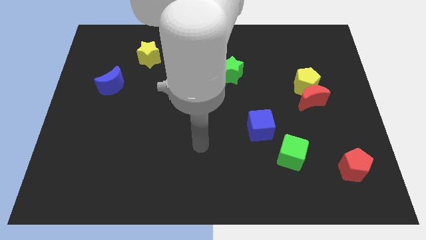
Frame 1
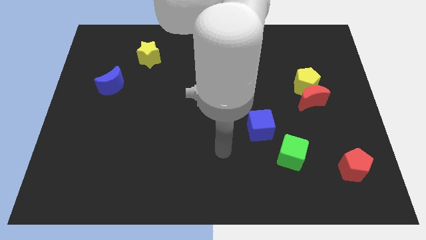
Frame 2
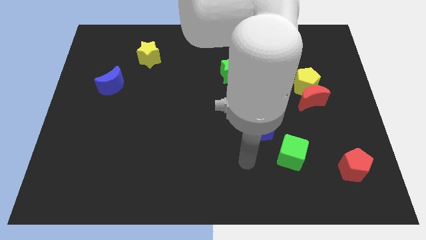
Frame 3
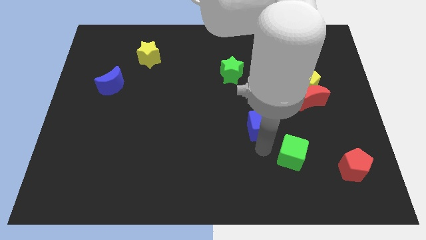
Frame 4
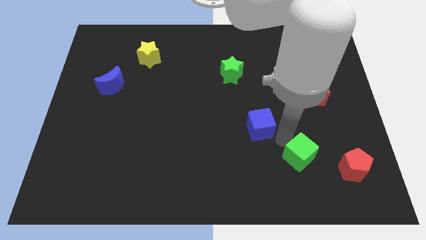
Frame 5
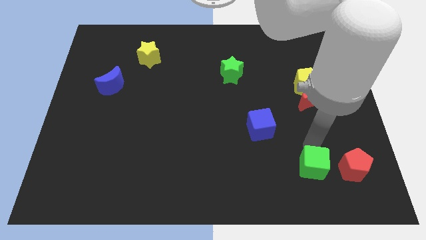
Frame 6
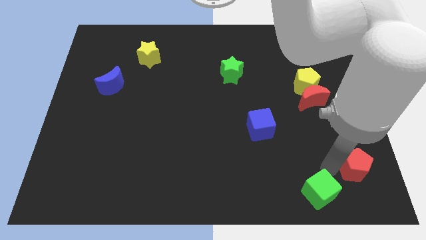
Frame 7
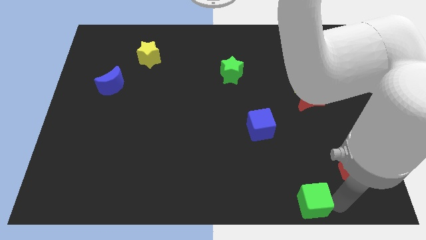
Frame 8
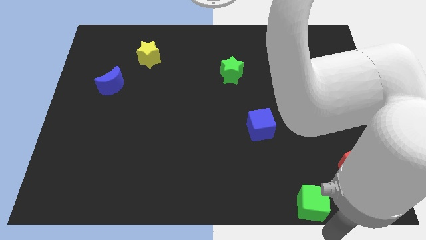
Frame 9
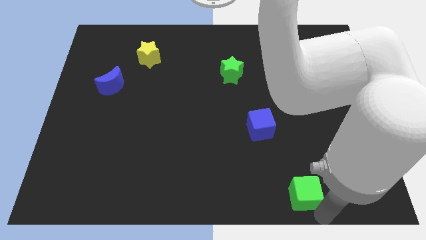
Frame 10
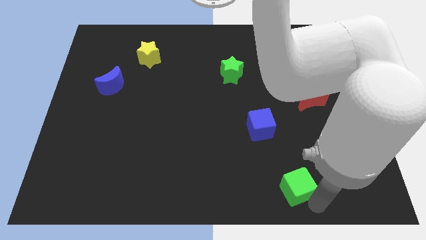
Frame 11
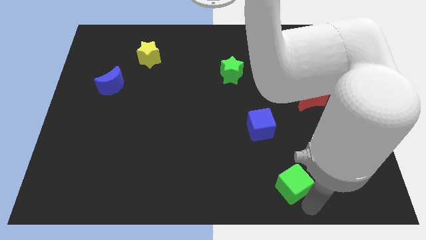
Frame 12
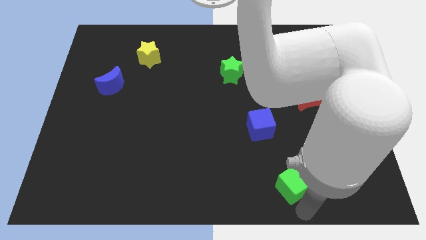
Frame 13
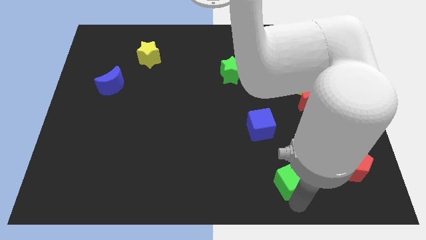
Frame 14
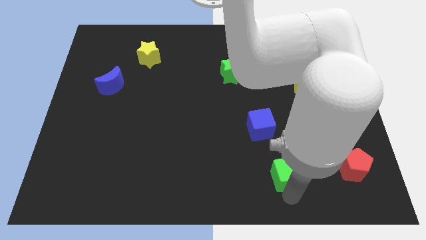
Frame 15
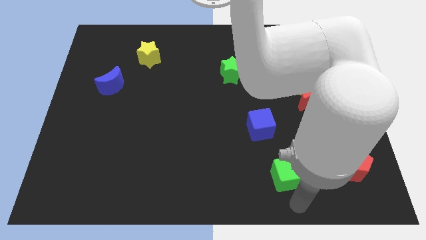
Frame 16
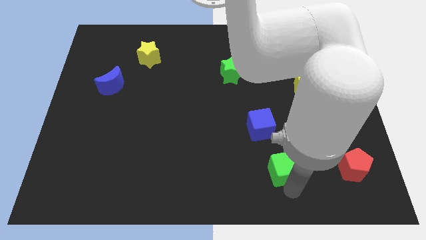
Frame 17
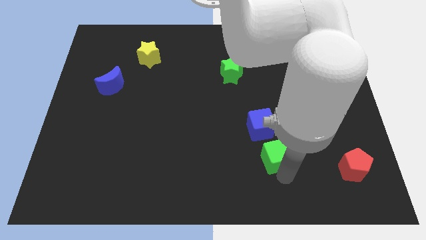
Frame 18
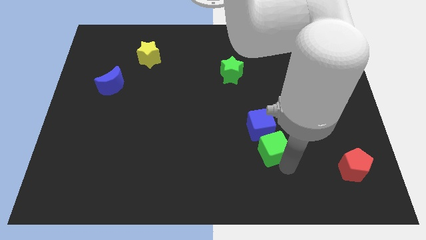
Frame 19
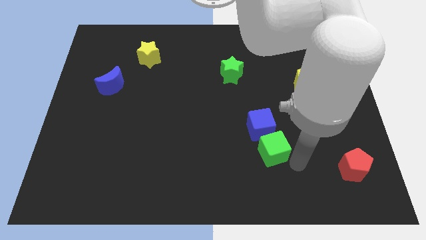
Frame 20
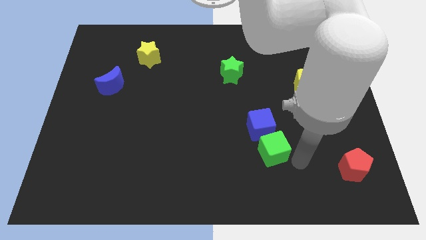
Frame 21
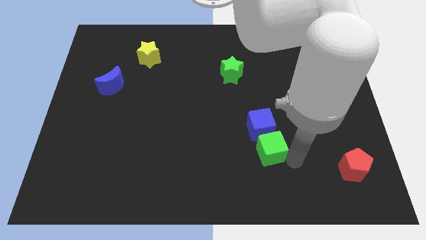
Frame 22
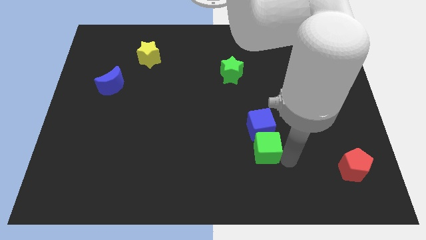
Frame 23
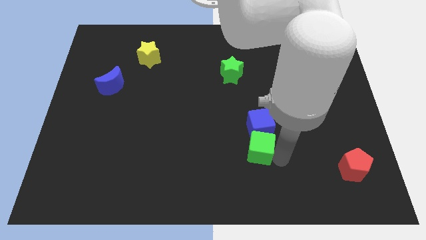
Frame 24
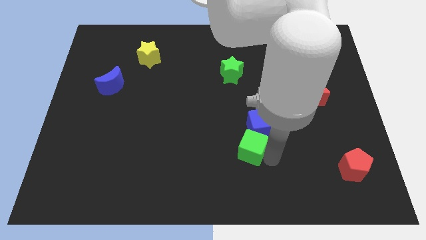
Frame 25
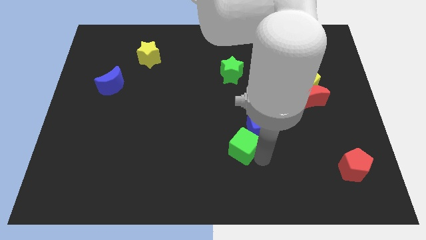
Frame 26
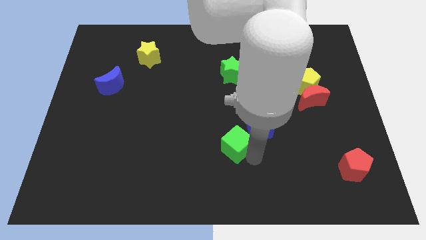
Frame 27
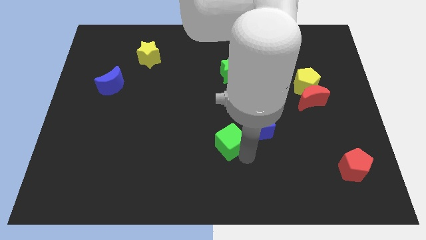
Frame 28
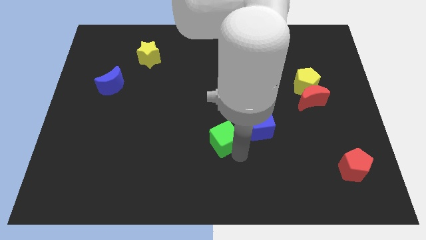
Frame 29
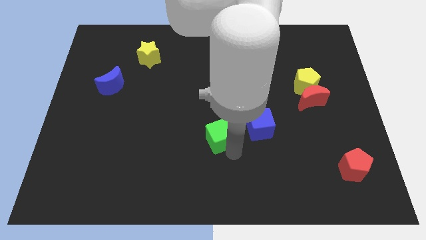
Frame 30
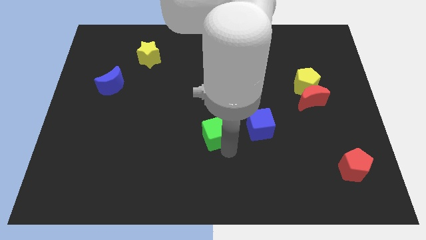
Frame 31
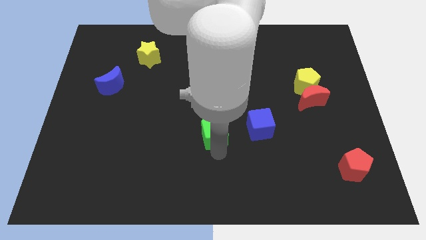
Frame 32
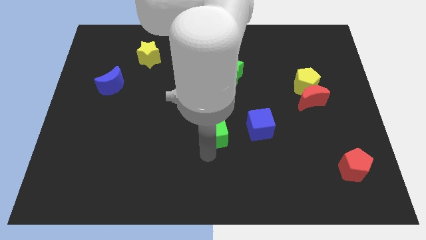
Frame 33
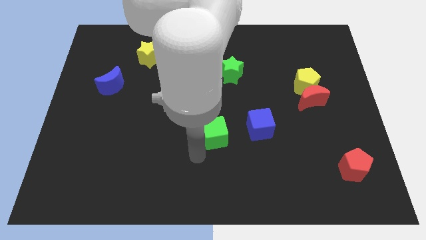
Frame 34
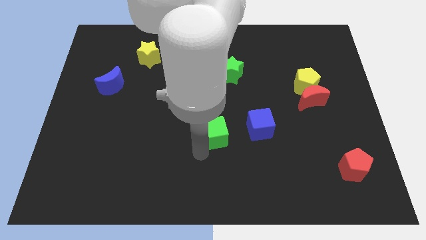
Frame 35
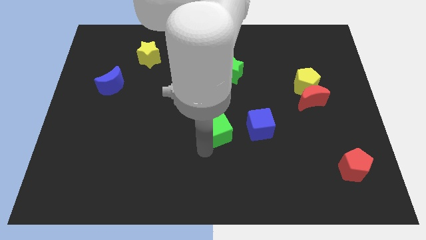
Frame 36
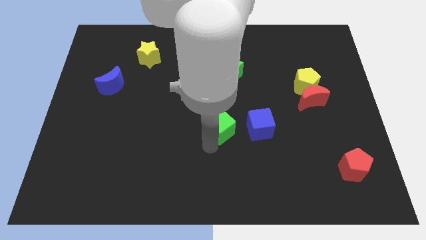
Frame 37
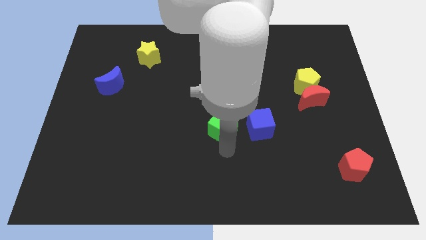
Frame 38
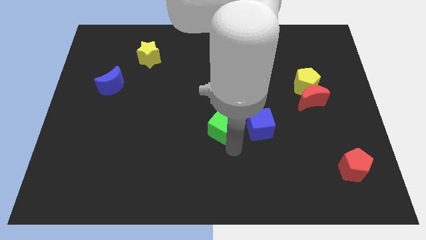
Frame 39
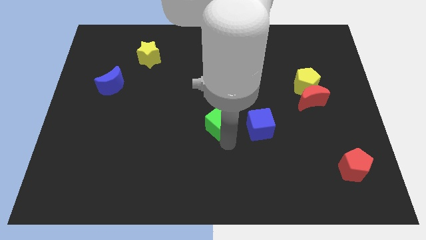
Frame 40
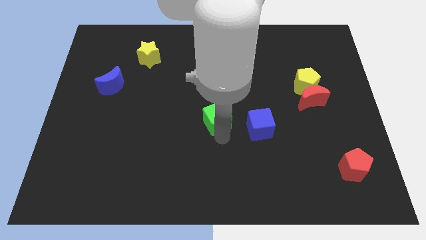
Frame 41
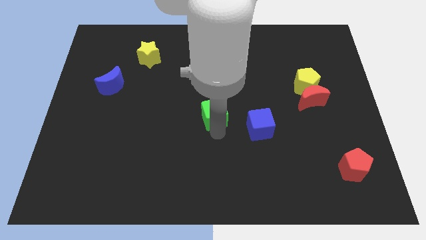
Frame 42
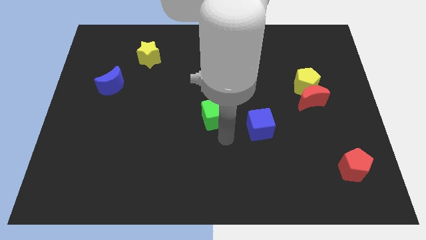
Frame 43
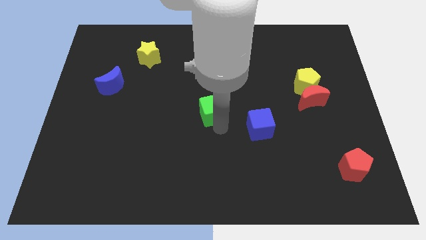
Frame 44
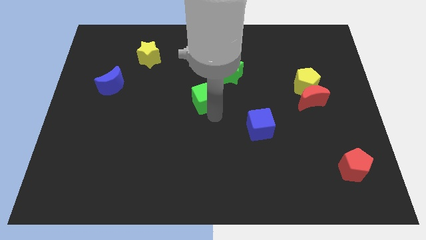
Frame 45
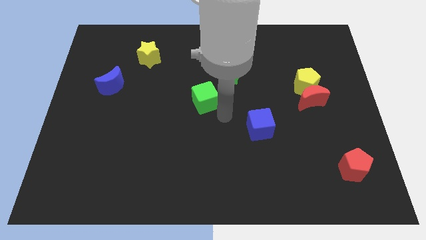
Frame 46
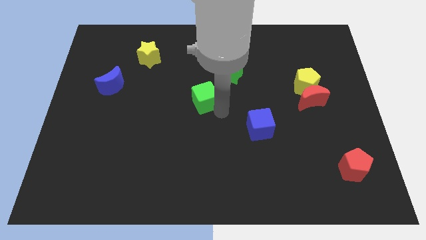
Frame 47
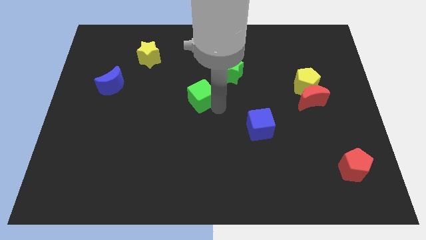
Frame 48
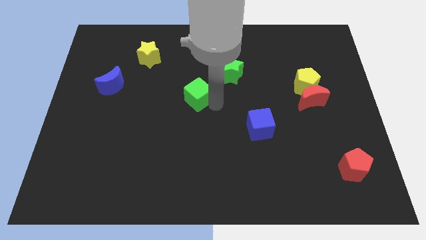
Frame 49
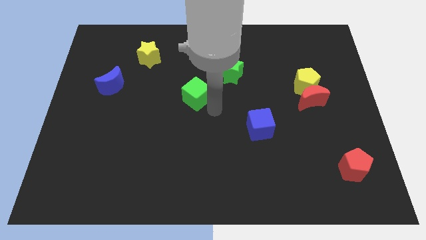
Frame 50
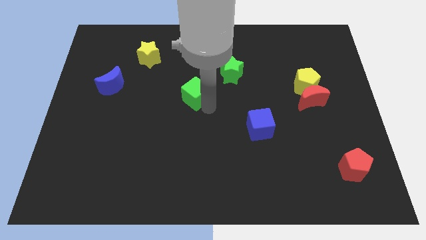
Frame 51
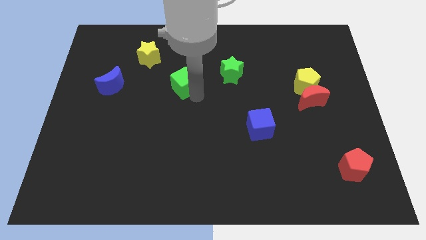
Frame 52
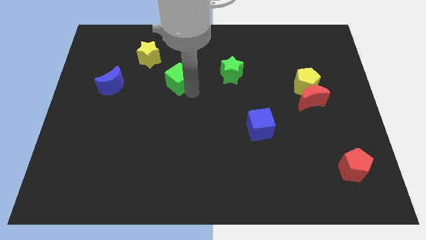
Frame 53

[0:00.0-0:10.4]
put the green cube to the bottom right side of the yellow star

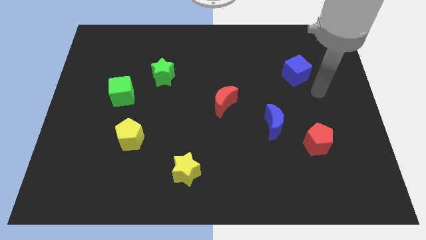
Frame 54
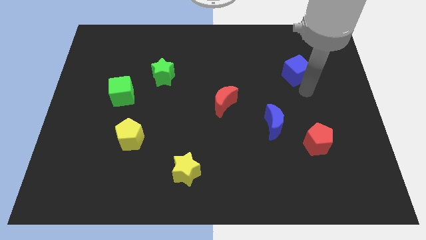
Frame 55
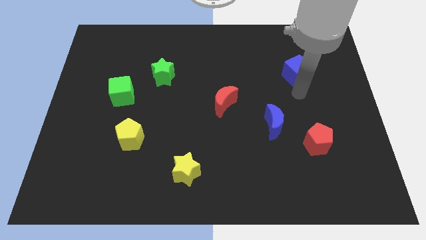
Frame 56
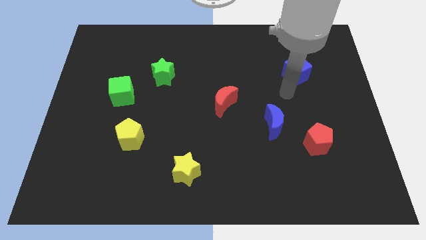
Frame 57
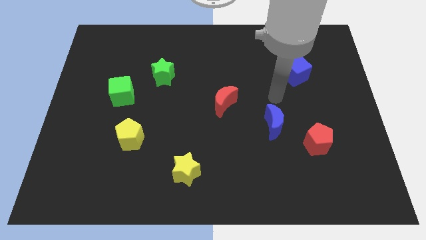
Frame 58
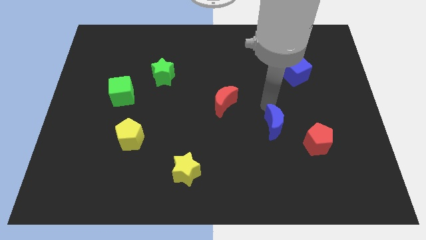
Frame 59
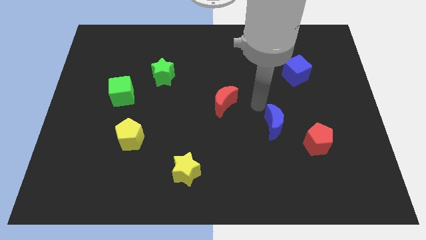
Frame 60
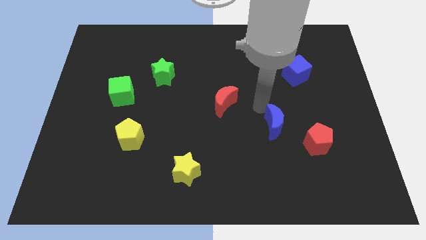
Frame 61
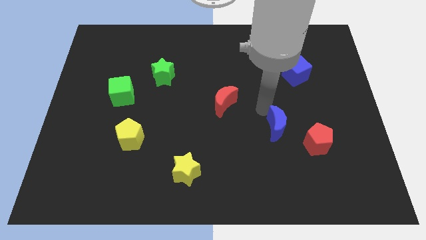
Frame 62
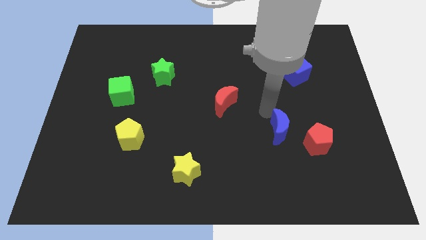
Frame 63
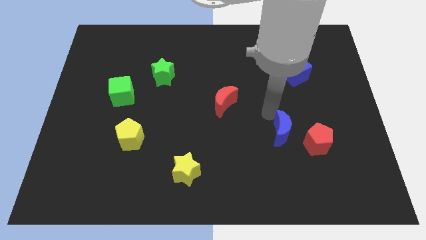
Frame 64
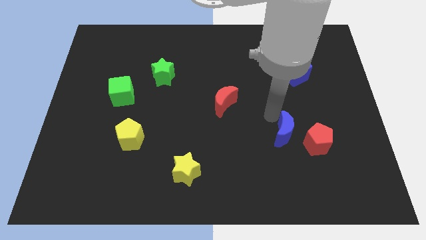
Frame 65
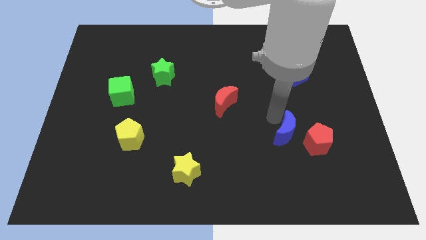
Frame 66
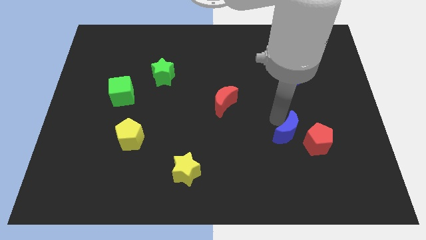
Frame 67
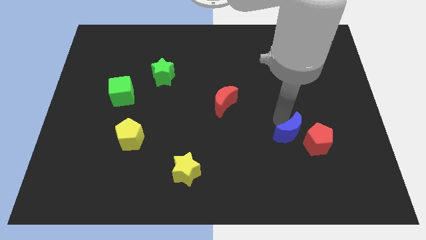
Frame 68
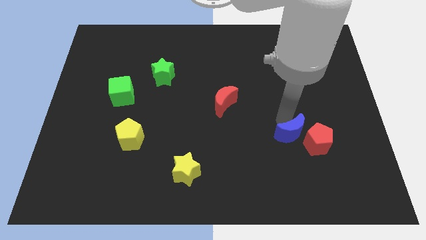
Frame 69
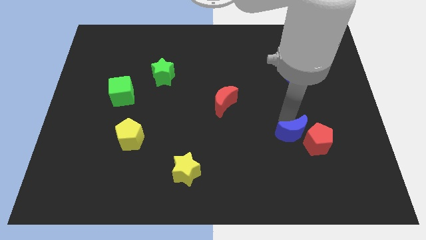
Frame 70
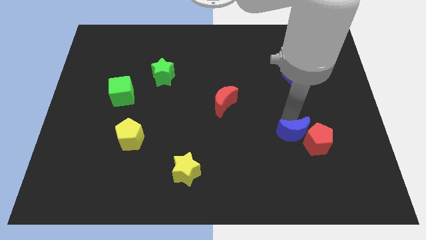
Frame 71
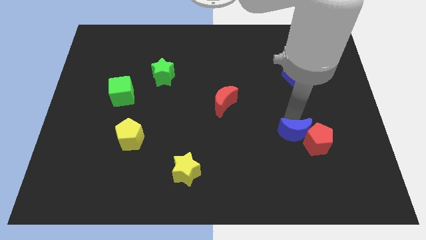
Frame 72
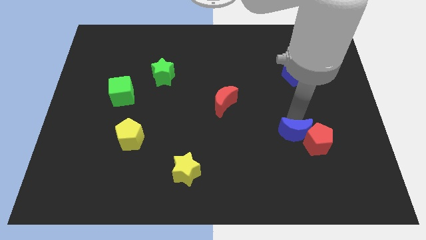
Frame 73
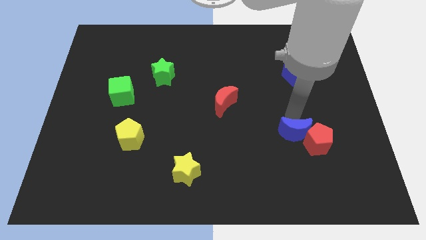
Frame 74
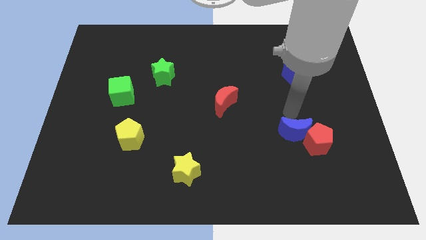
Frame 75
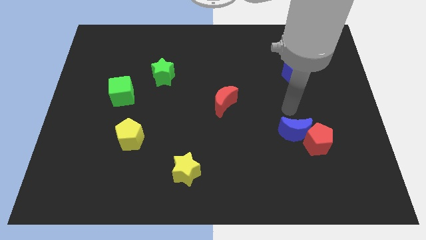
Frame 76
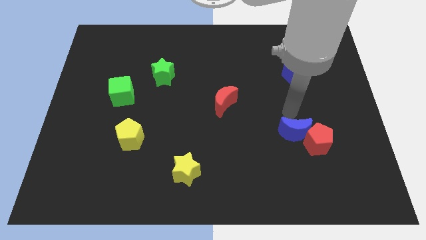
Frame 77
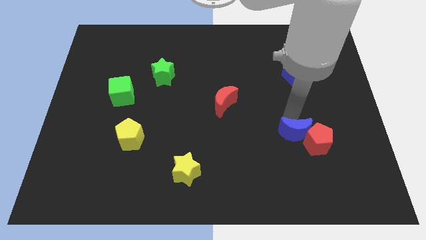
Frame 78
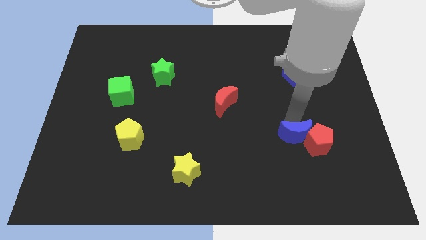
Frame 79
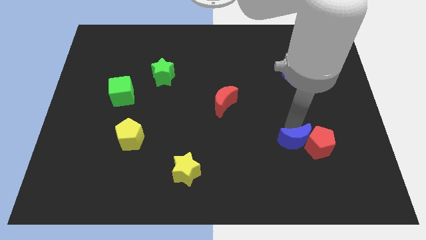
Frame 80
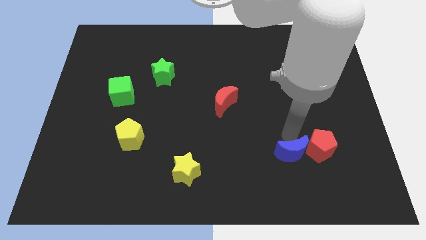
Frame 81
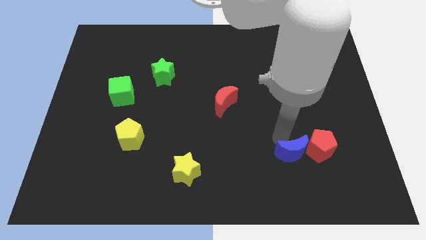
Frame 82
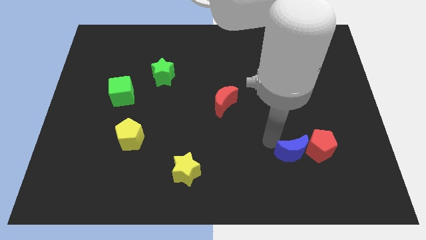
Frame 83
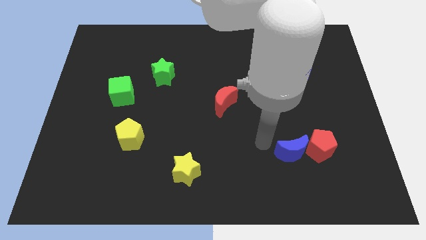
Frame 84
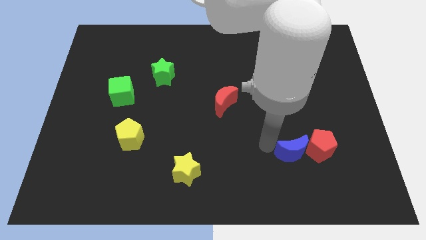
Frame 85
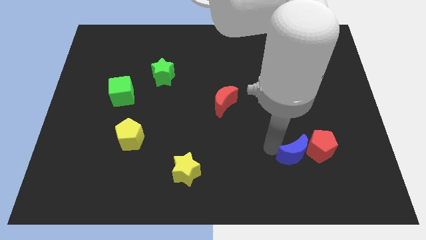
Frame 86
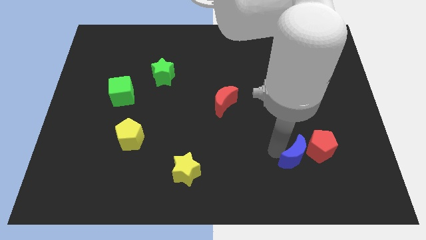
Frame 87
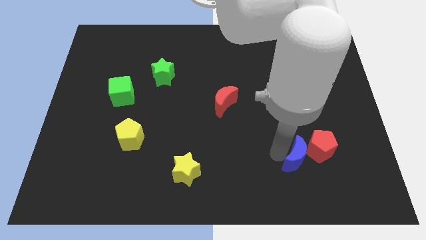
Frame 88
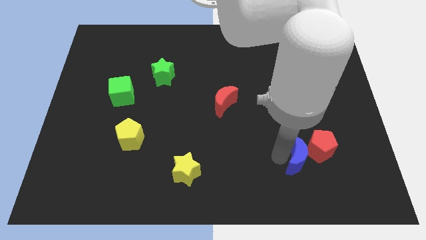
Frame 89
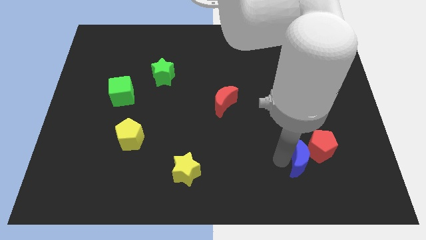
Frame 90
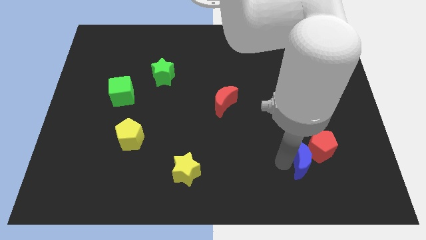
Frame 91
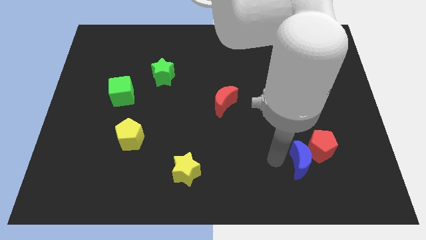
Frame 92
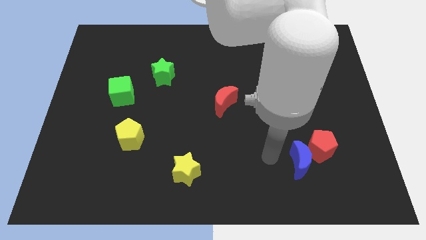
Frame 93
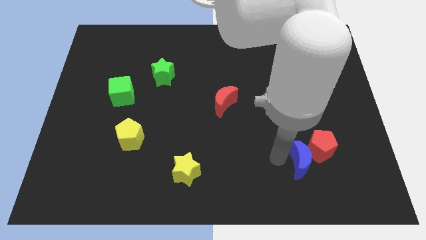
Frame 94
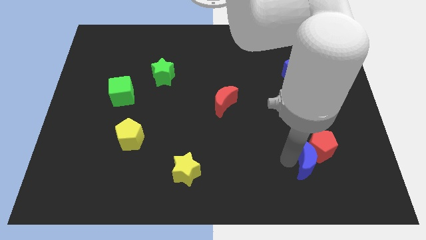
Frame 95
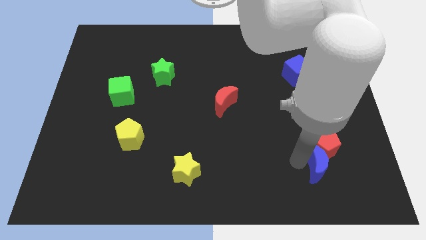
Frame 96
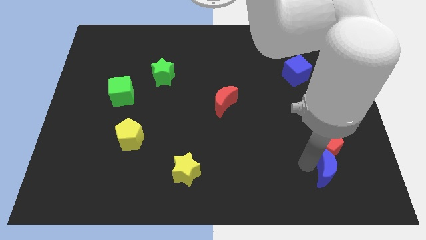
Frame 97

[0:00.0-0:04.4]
slide the blue moon to the bottom right of the red pentagon
